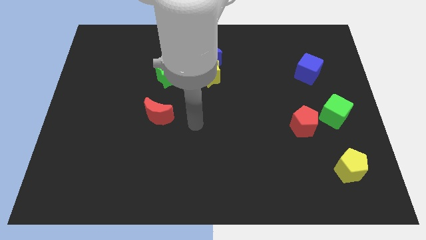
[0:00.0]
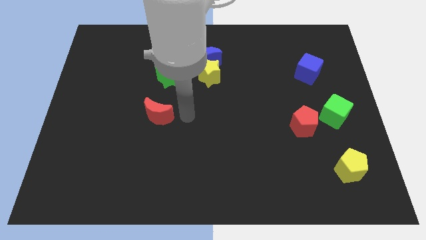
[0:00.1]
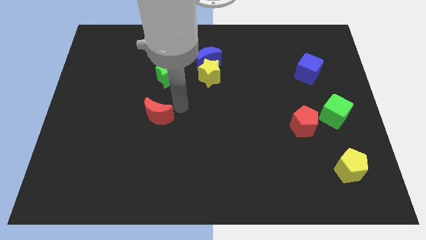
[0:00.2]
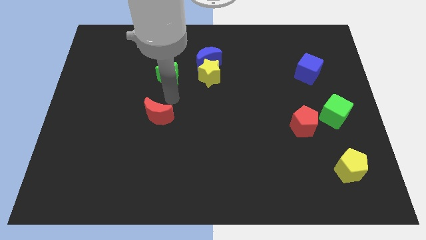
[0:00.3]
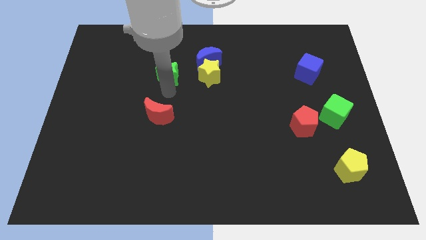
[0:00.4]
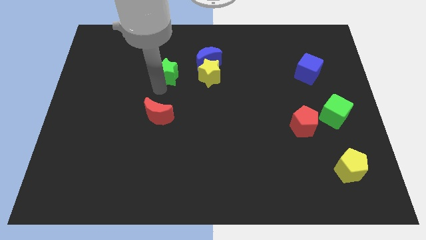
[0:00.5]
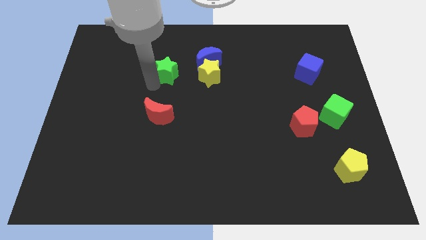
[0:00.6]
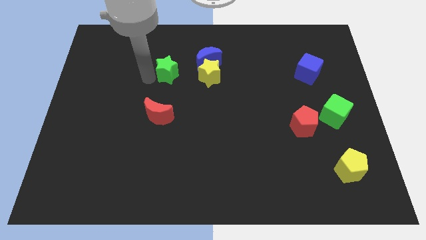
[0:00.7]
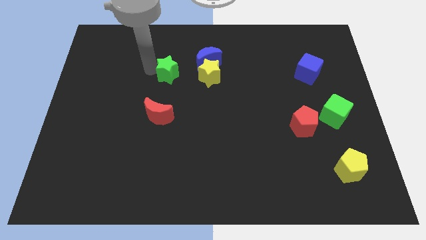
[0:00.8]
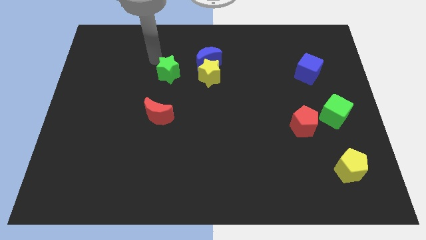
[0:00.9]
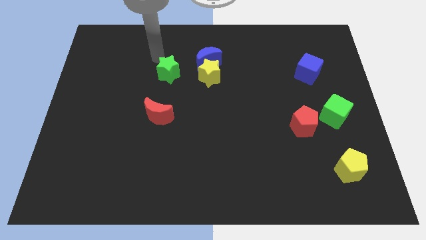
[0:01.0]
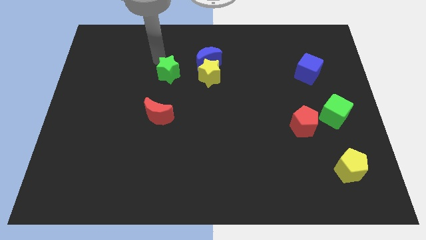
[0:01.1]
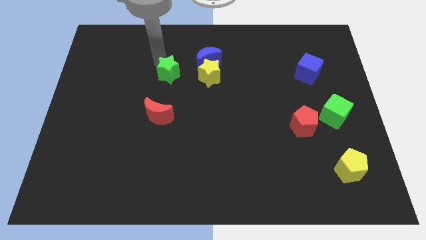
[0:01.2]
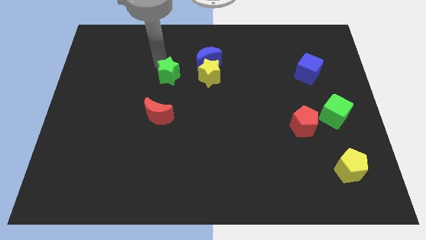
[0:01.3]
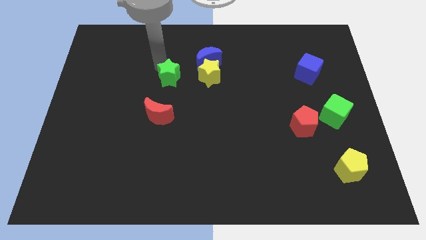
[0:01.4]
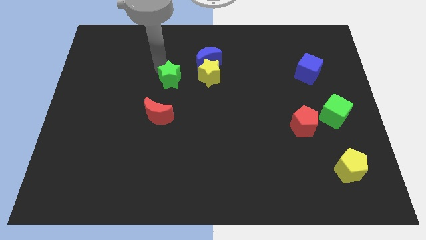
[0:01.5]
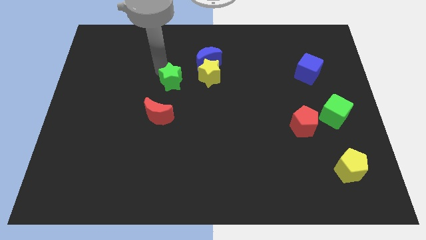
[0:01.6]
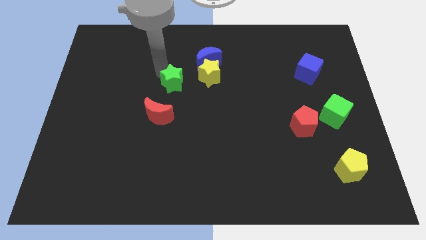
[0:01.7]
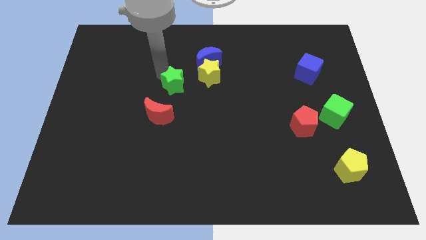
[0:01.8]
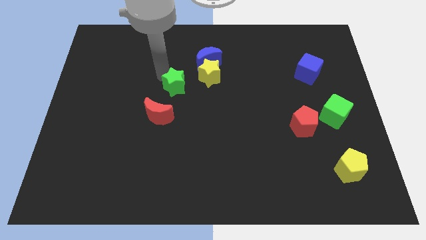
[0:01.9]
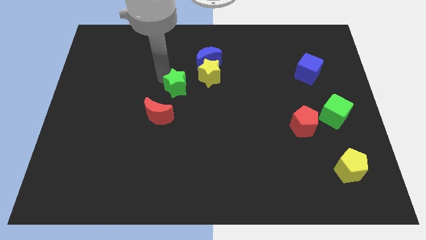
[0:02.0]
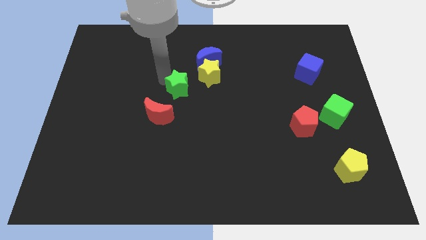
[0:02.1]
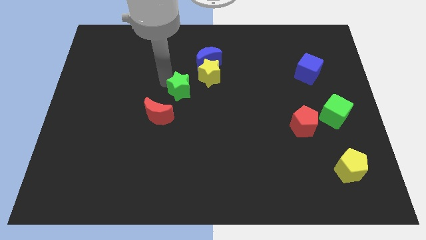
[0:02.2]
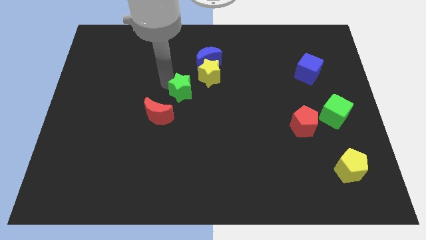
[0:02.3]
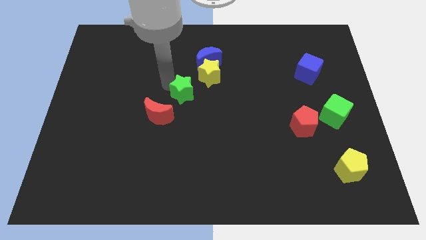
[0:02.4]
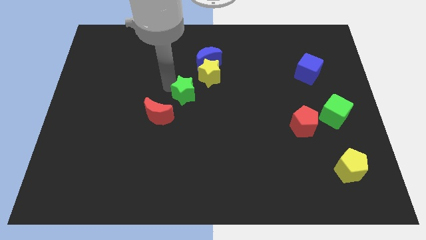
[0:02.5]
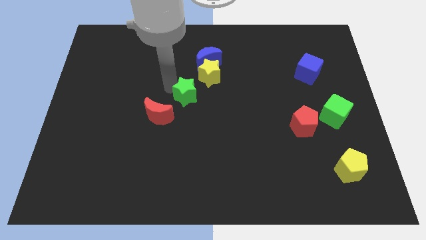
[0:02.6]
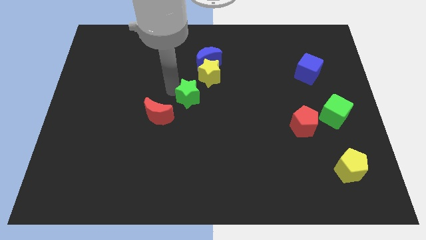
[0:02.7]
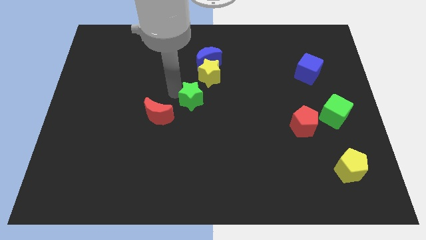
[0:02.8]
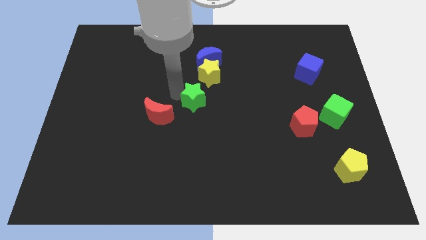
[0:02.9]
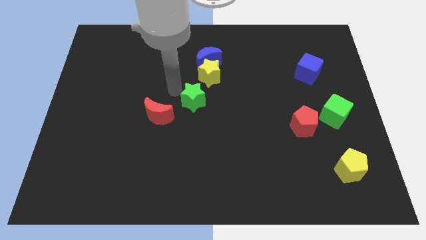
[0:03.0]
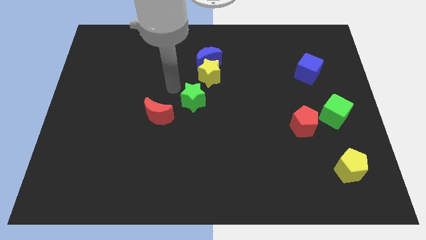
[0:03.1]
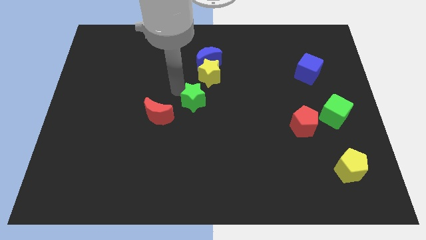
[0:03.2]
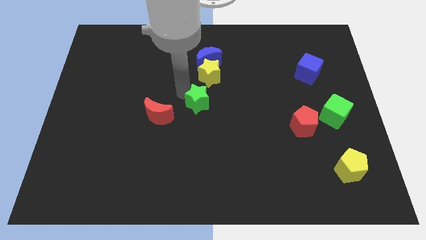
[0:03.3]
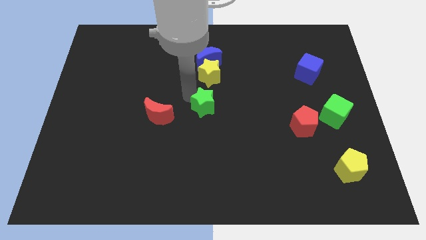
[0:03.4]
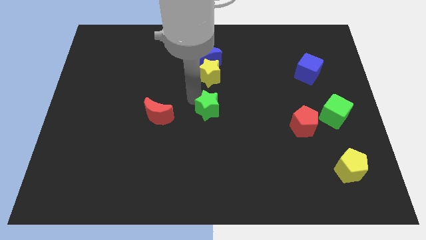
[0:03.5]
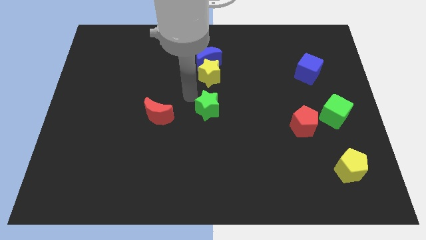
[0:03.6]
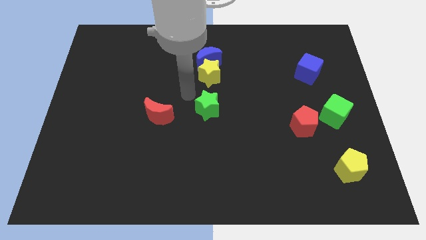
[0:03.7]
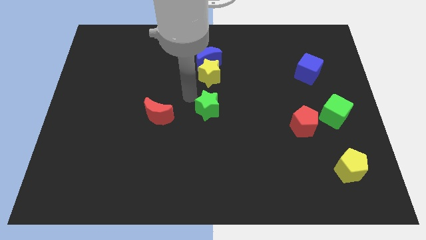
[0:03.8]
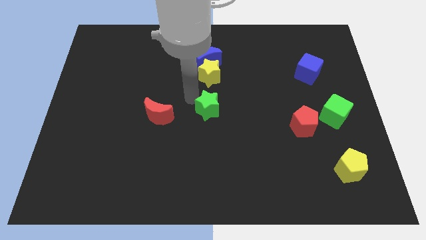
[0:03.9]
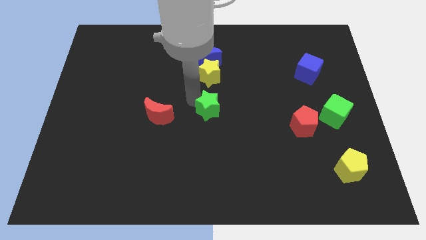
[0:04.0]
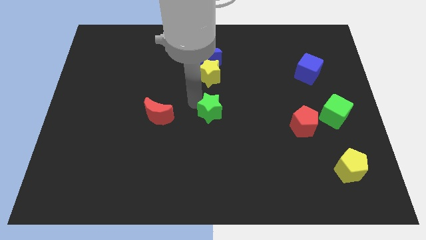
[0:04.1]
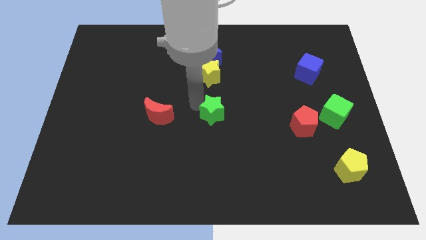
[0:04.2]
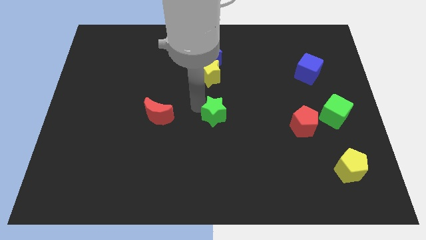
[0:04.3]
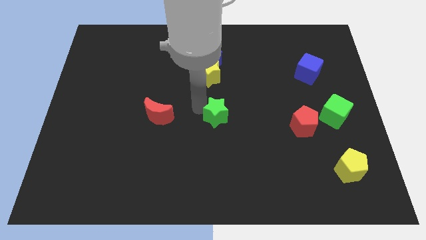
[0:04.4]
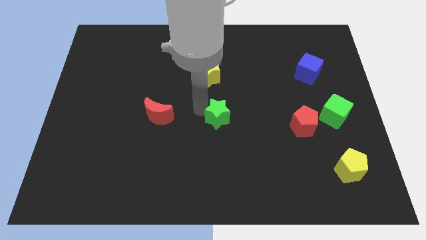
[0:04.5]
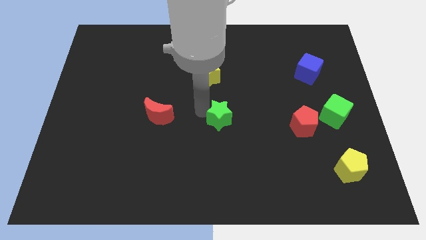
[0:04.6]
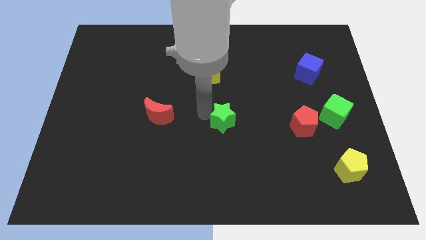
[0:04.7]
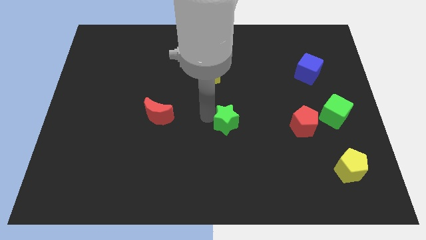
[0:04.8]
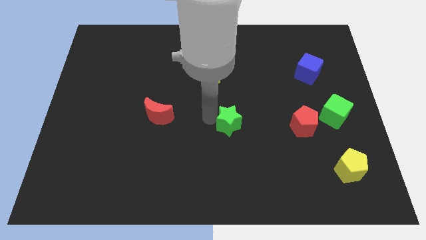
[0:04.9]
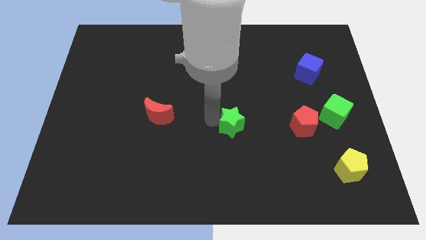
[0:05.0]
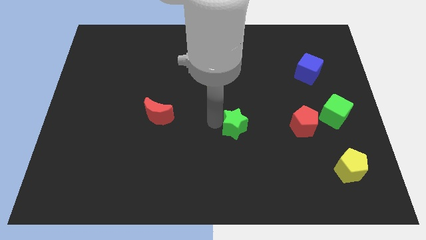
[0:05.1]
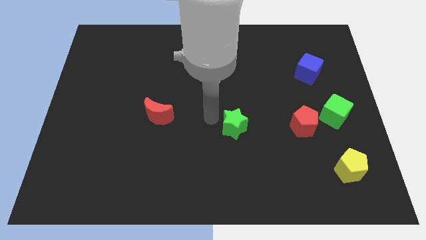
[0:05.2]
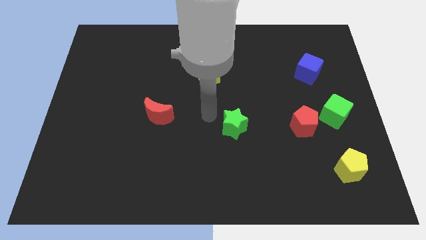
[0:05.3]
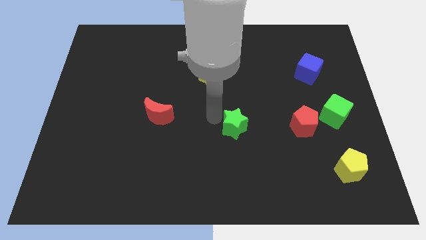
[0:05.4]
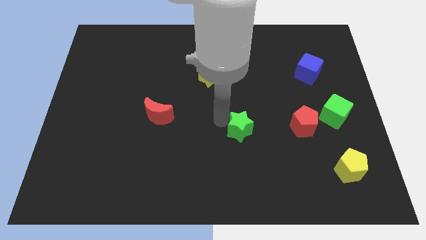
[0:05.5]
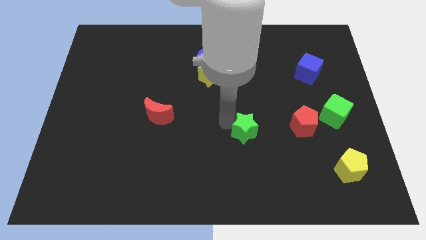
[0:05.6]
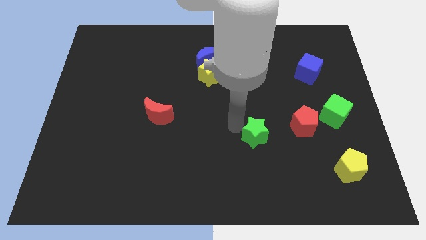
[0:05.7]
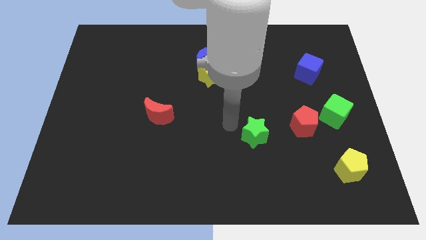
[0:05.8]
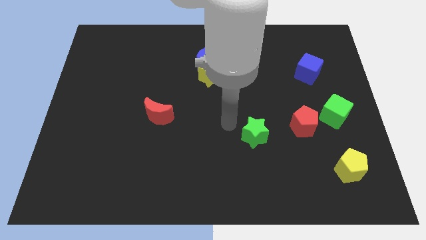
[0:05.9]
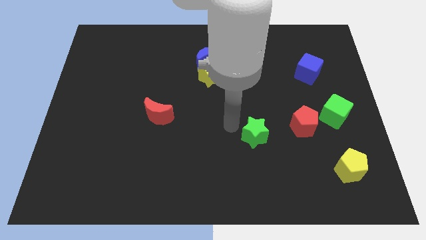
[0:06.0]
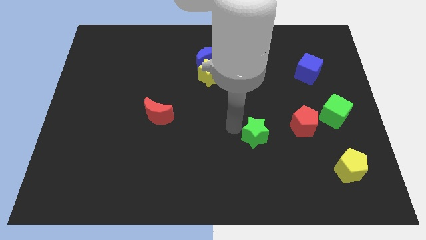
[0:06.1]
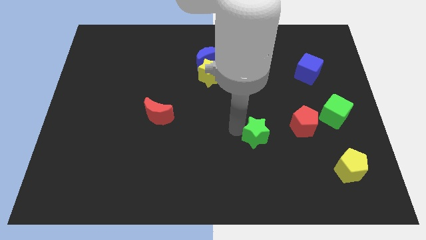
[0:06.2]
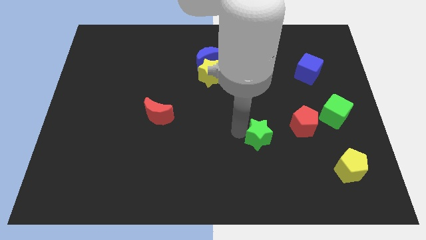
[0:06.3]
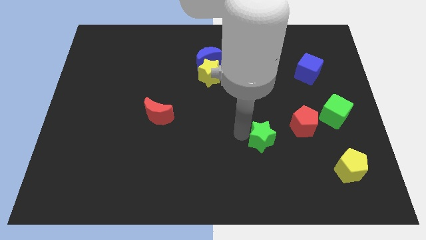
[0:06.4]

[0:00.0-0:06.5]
put the green star to the bottom left side of the red pentagon
